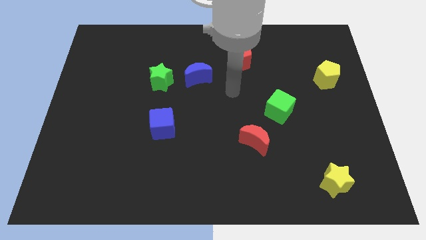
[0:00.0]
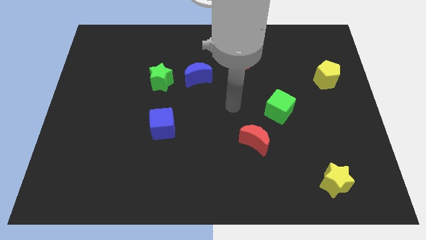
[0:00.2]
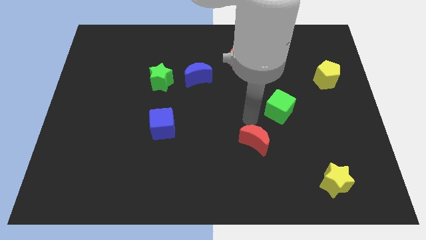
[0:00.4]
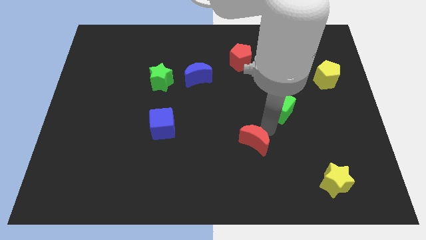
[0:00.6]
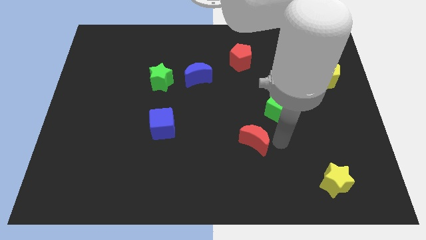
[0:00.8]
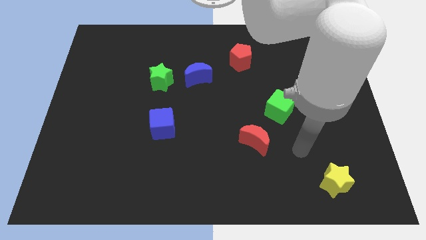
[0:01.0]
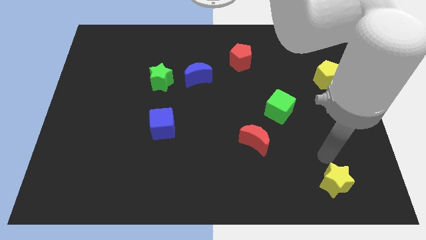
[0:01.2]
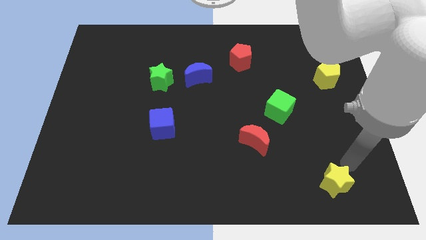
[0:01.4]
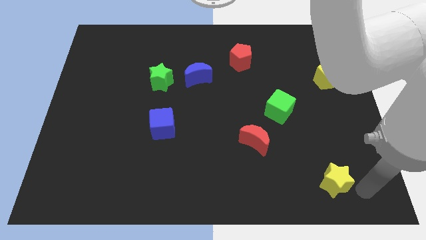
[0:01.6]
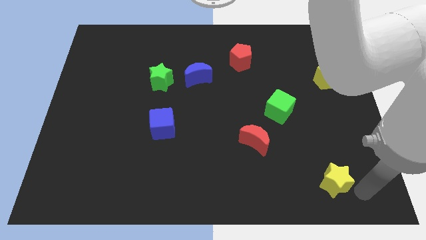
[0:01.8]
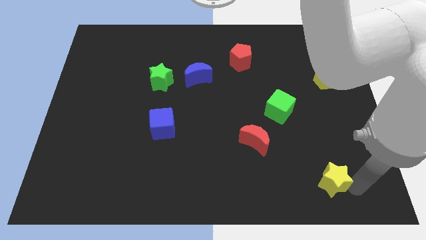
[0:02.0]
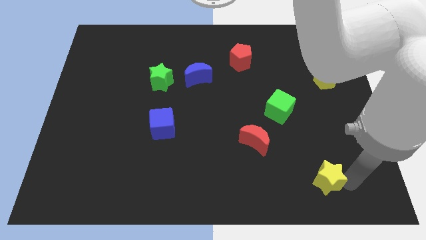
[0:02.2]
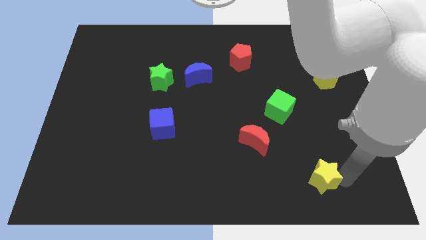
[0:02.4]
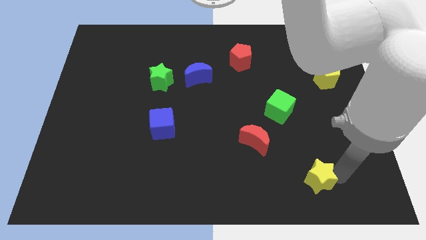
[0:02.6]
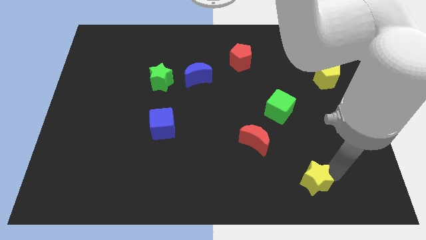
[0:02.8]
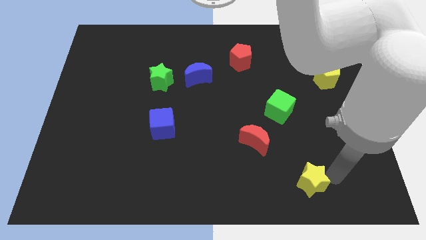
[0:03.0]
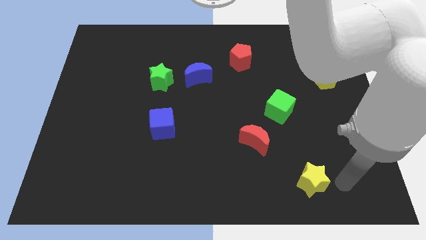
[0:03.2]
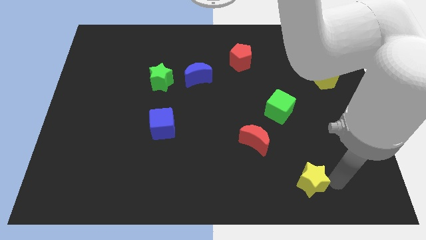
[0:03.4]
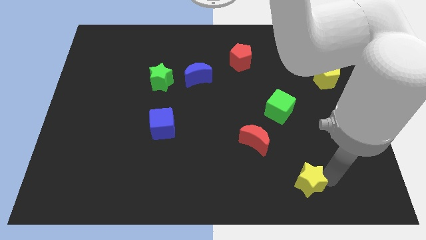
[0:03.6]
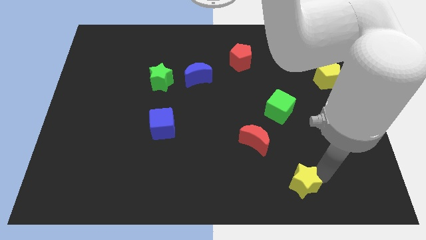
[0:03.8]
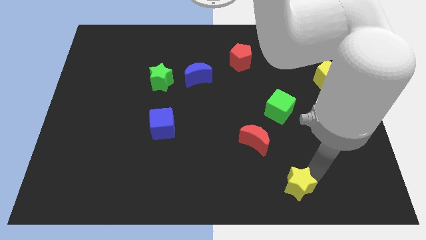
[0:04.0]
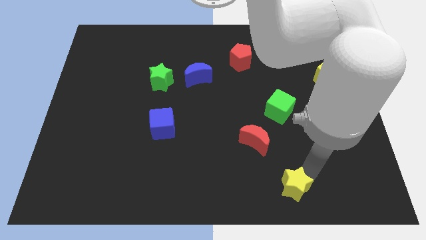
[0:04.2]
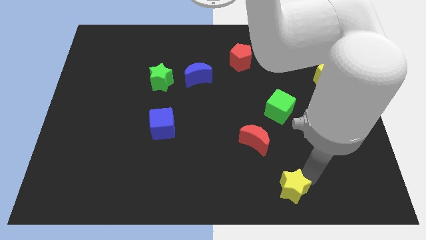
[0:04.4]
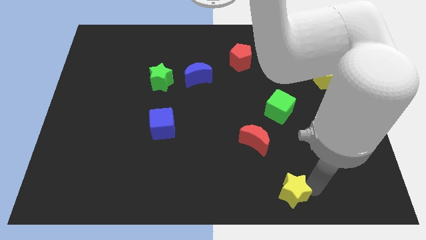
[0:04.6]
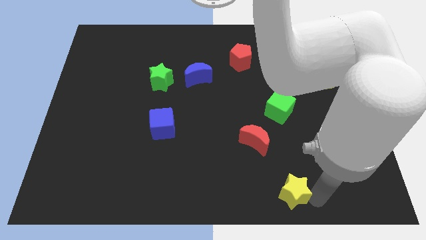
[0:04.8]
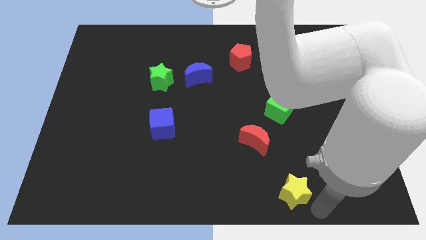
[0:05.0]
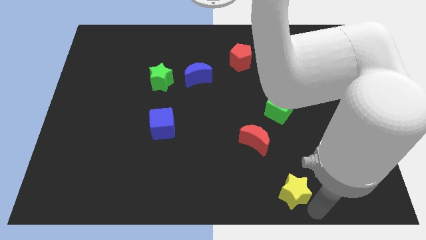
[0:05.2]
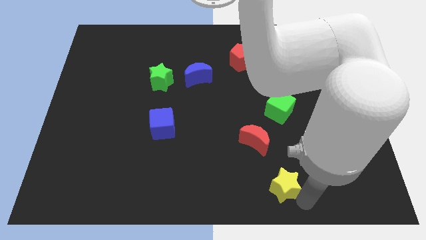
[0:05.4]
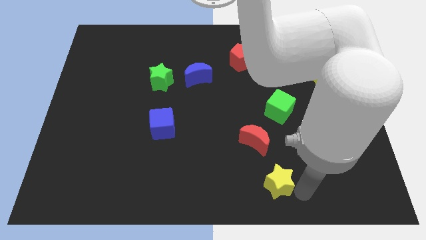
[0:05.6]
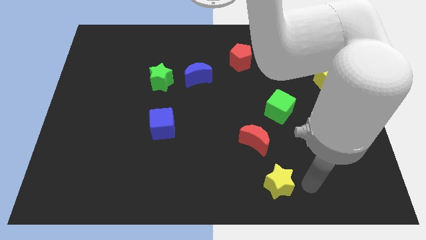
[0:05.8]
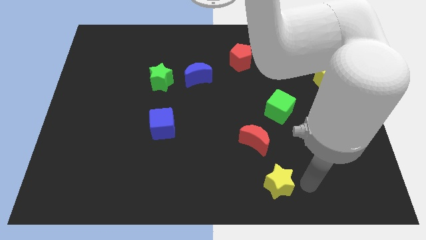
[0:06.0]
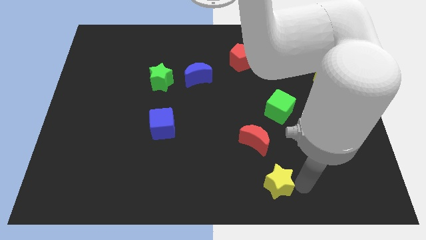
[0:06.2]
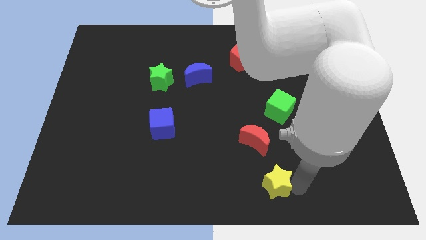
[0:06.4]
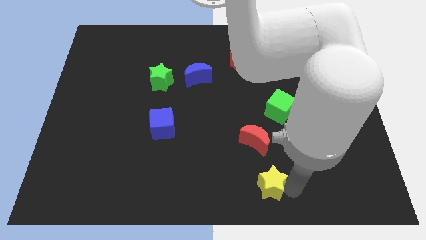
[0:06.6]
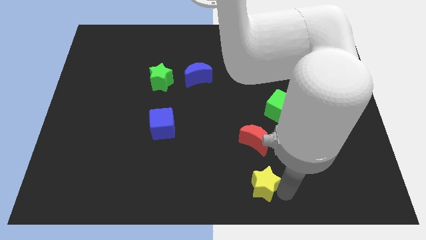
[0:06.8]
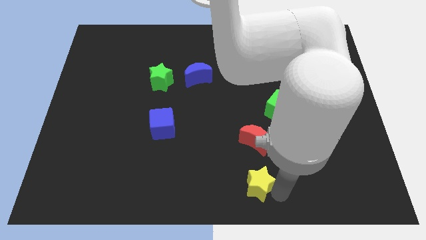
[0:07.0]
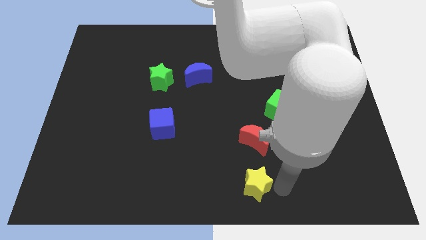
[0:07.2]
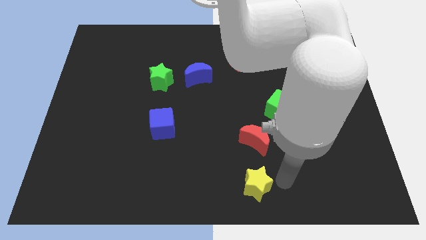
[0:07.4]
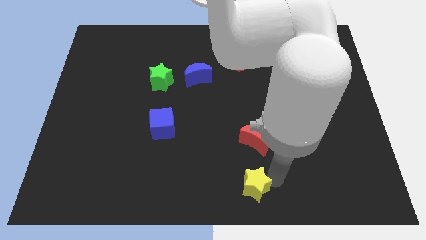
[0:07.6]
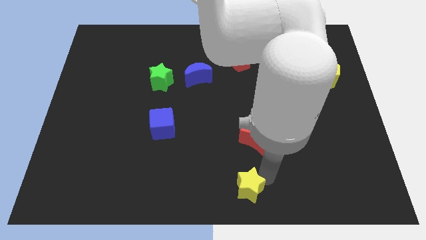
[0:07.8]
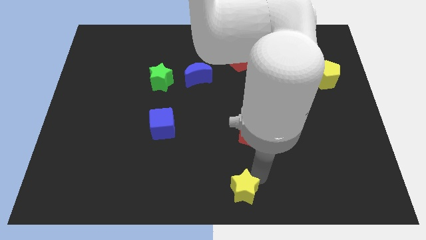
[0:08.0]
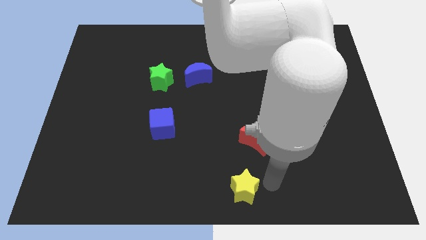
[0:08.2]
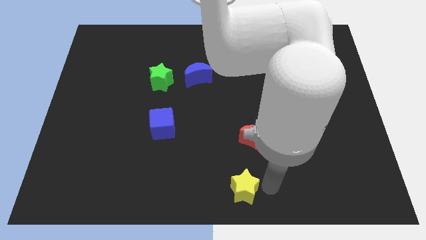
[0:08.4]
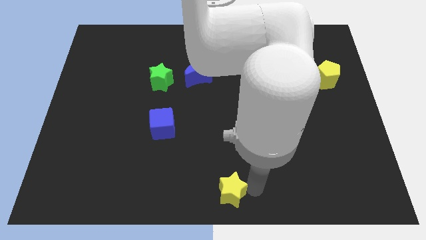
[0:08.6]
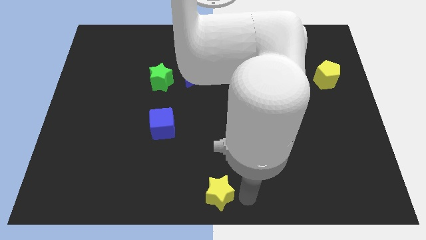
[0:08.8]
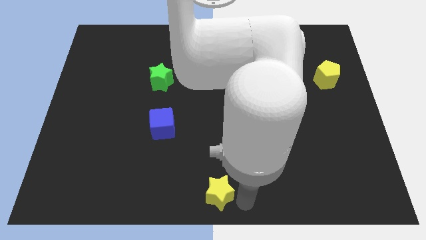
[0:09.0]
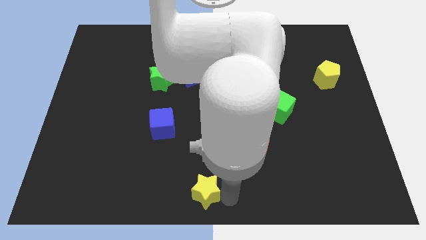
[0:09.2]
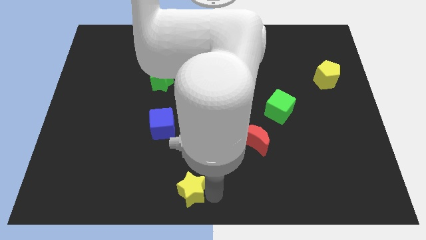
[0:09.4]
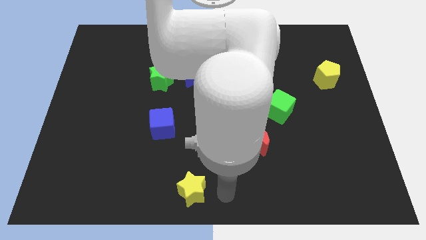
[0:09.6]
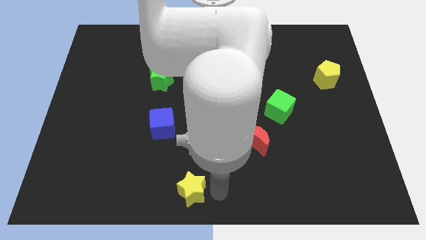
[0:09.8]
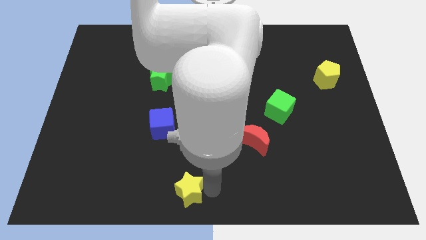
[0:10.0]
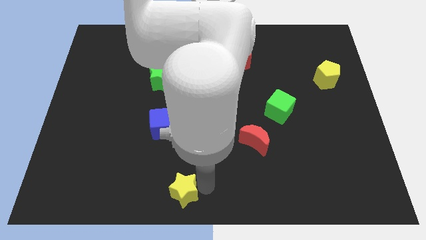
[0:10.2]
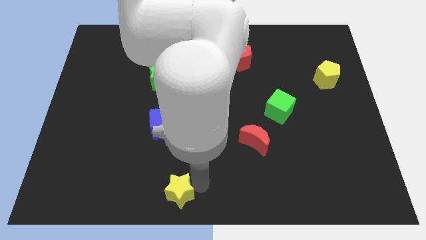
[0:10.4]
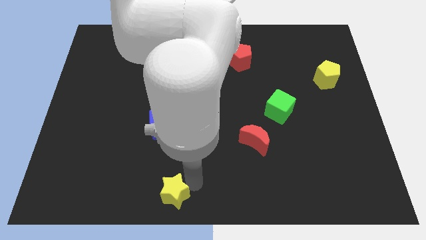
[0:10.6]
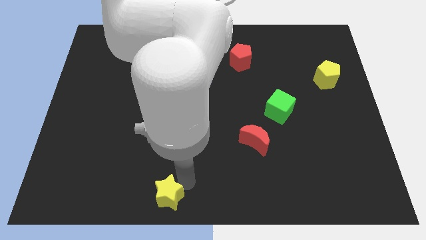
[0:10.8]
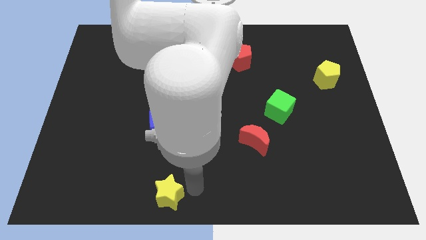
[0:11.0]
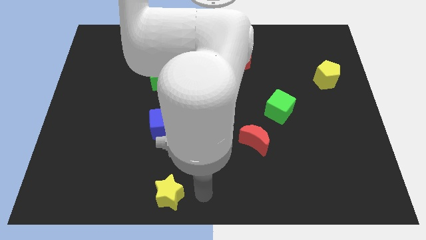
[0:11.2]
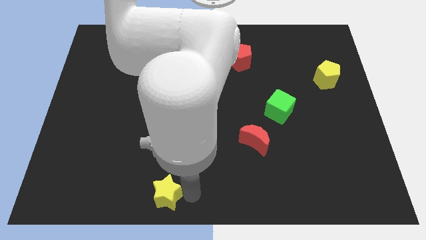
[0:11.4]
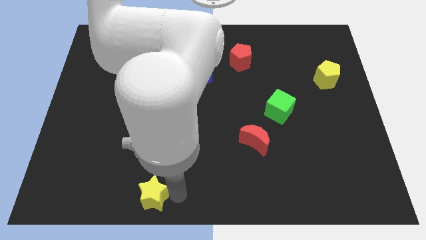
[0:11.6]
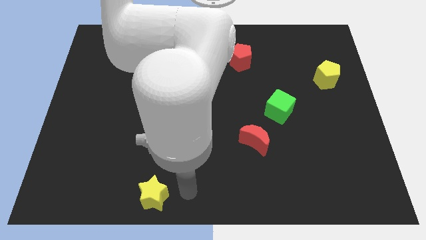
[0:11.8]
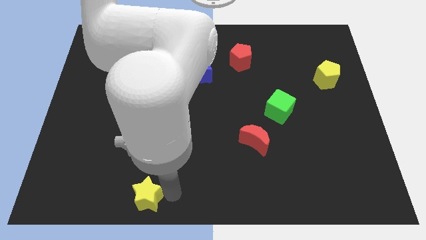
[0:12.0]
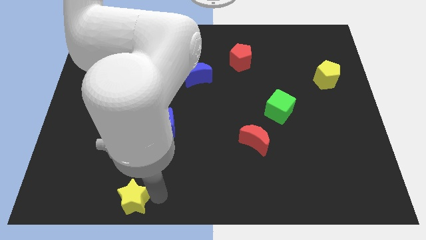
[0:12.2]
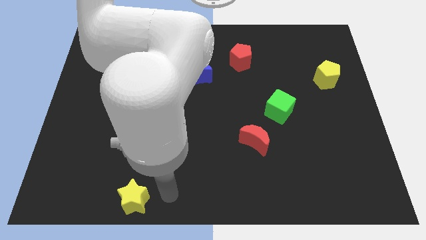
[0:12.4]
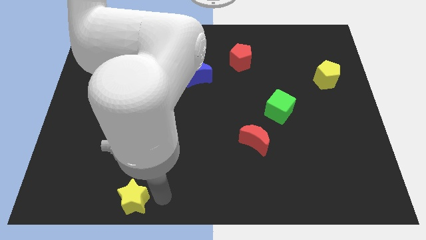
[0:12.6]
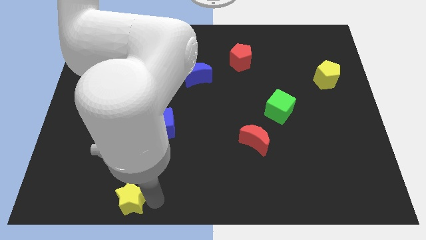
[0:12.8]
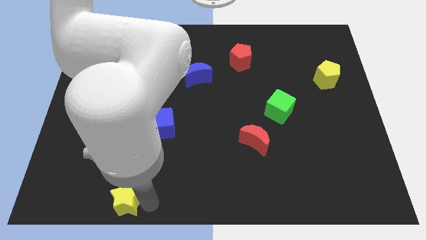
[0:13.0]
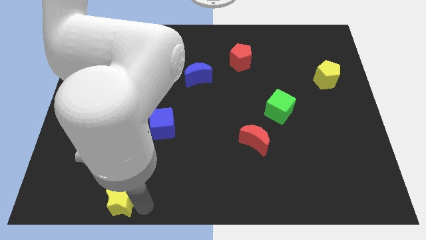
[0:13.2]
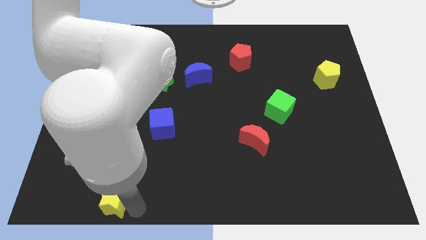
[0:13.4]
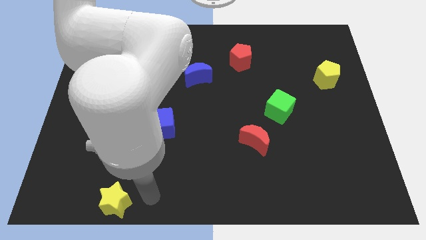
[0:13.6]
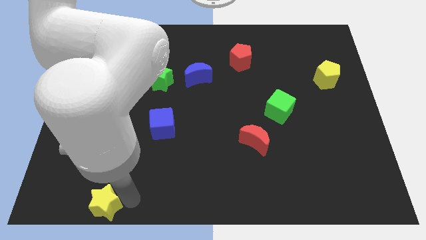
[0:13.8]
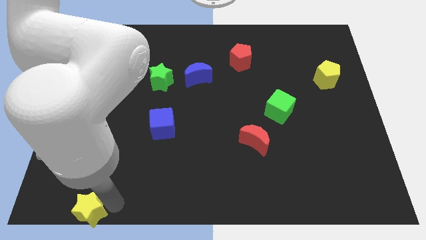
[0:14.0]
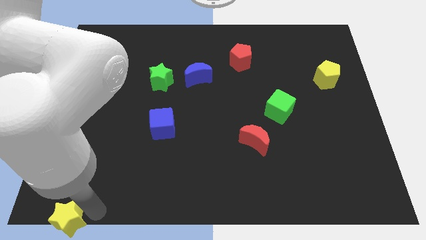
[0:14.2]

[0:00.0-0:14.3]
slide the yellow star to the bottom left corner
